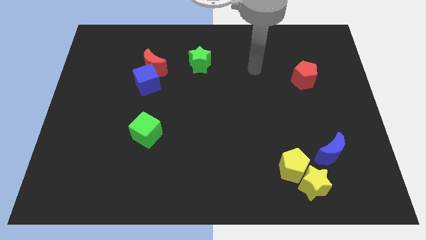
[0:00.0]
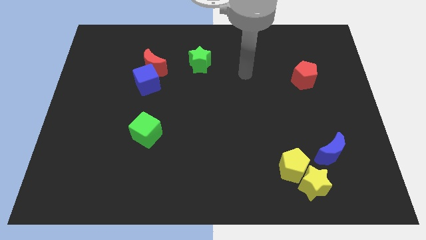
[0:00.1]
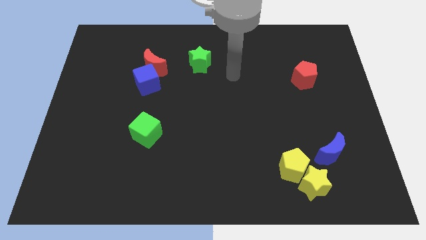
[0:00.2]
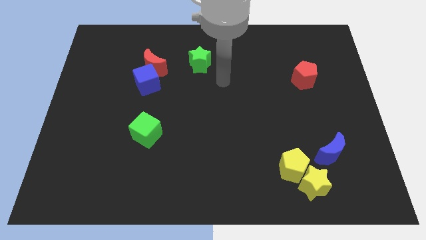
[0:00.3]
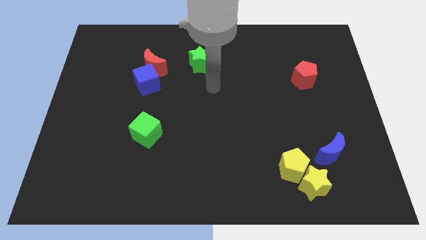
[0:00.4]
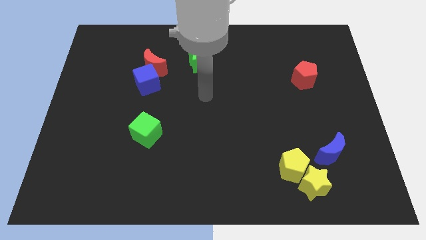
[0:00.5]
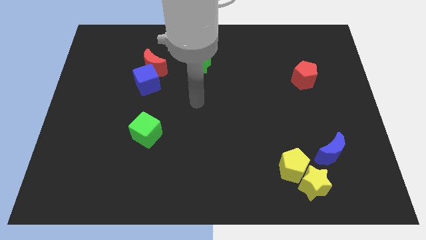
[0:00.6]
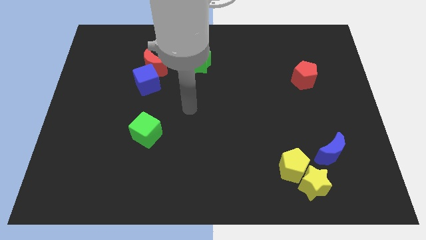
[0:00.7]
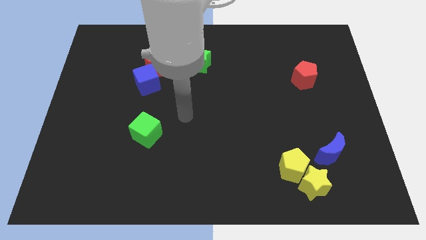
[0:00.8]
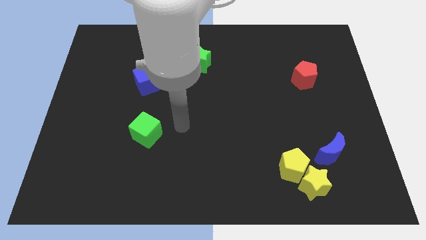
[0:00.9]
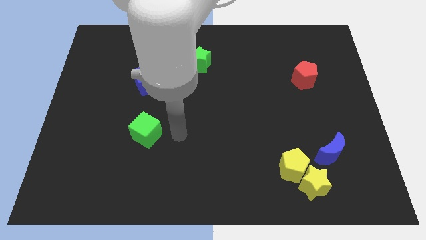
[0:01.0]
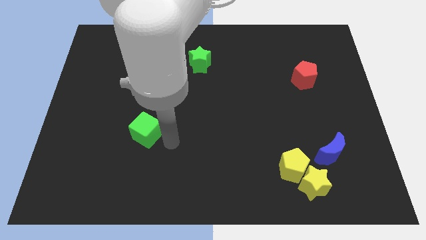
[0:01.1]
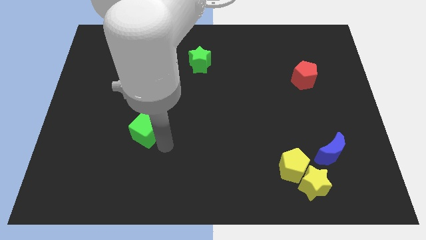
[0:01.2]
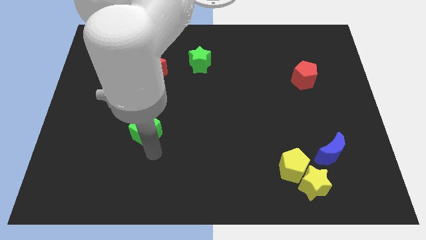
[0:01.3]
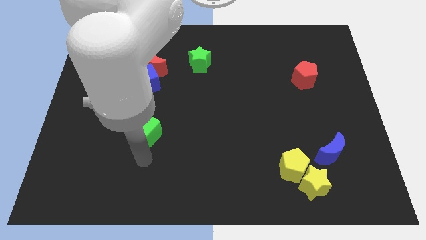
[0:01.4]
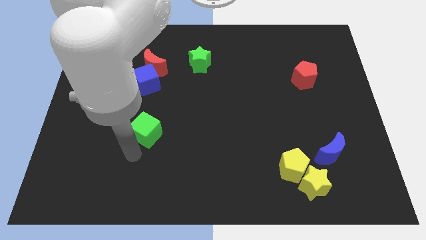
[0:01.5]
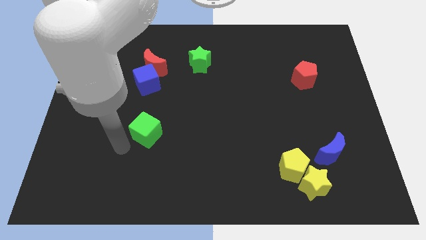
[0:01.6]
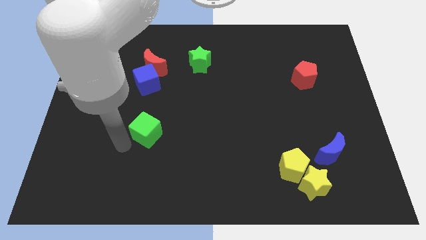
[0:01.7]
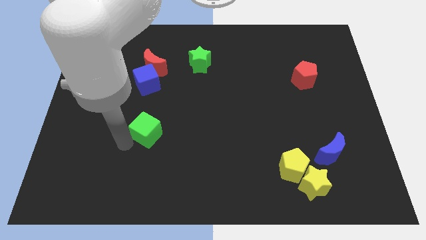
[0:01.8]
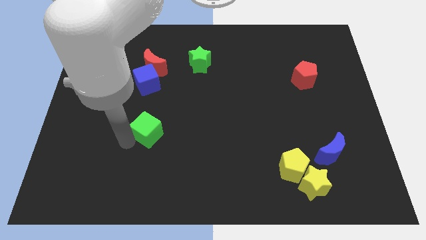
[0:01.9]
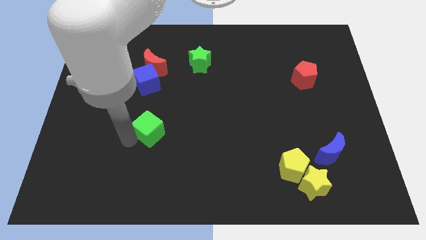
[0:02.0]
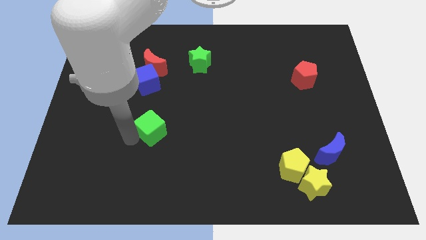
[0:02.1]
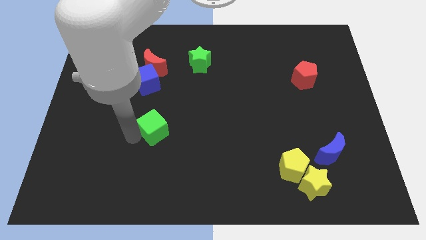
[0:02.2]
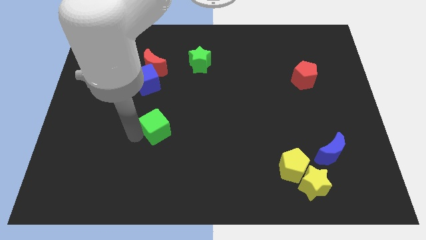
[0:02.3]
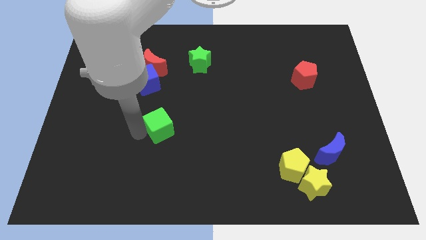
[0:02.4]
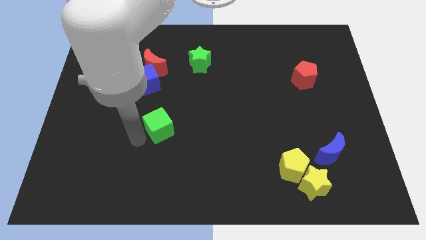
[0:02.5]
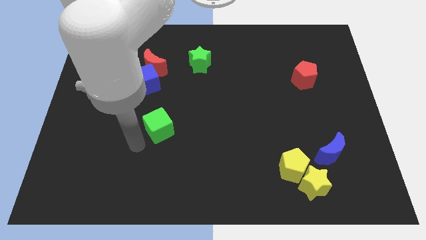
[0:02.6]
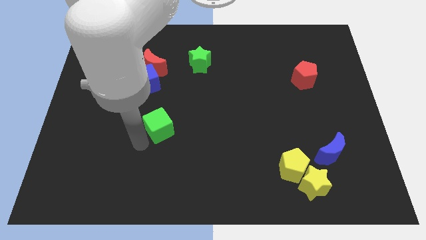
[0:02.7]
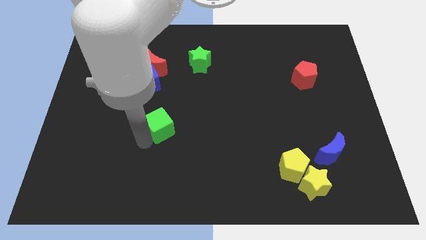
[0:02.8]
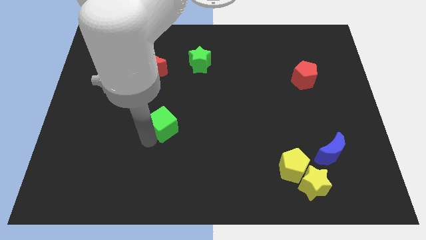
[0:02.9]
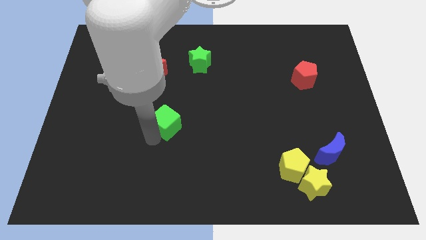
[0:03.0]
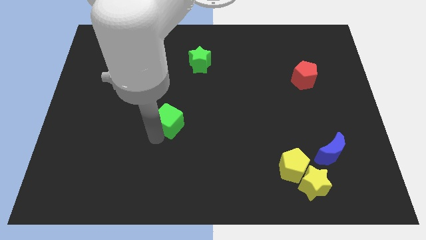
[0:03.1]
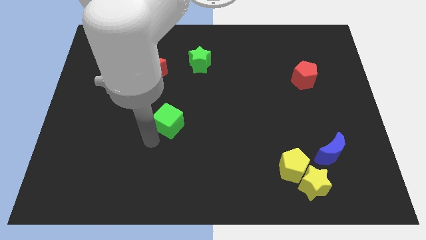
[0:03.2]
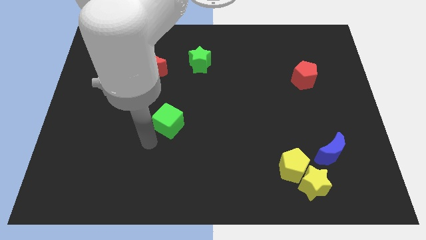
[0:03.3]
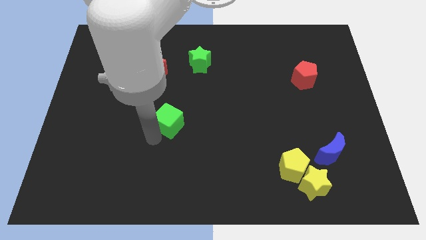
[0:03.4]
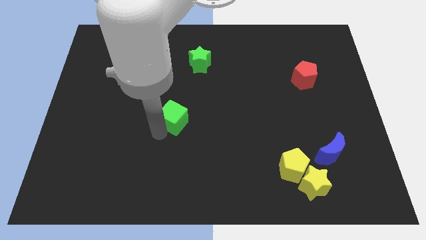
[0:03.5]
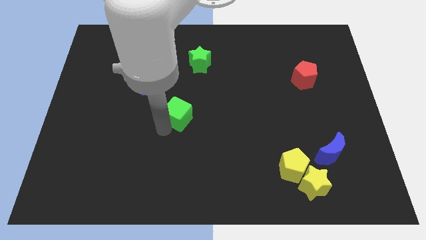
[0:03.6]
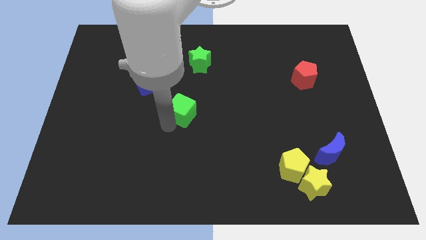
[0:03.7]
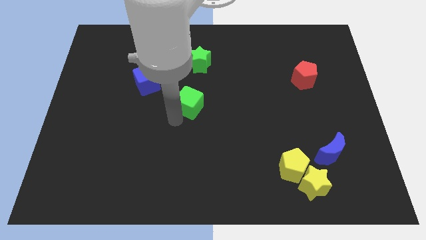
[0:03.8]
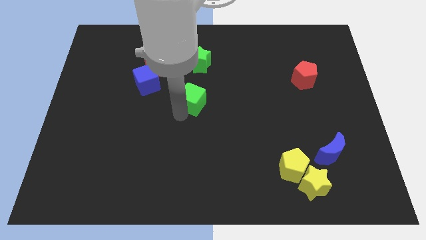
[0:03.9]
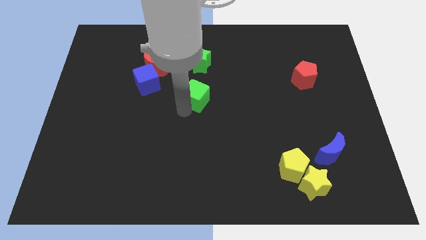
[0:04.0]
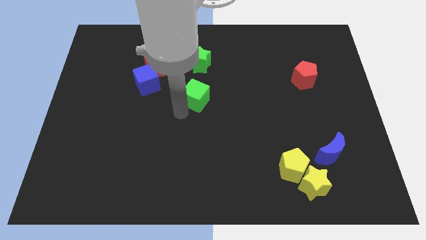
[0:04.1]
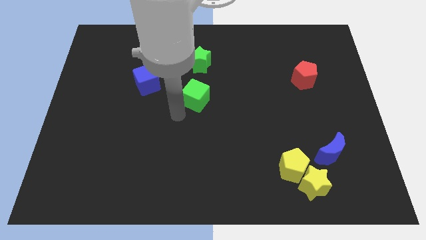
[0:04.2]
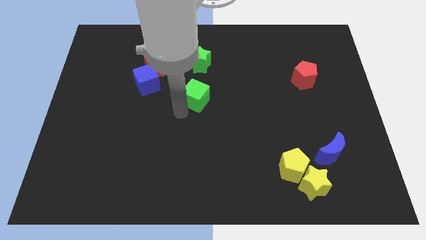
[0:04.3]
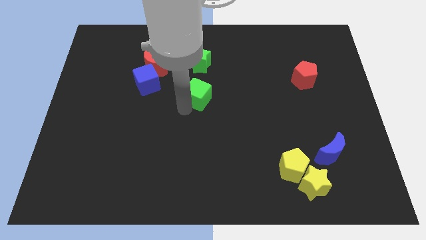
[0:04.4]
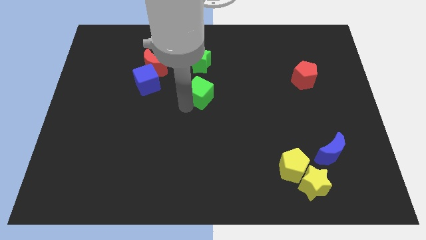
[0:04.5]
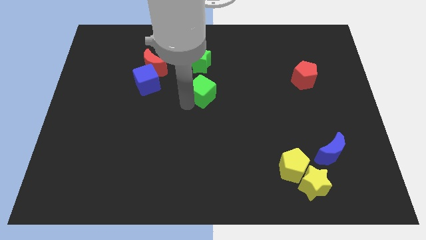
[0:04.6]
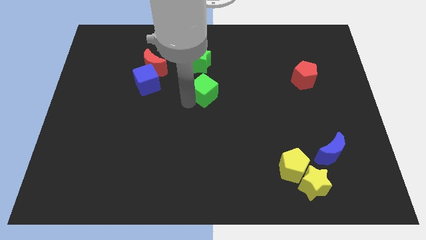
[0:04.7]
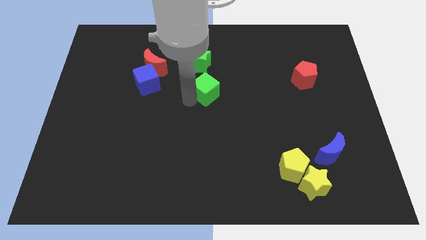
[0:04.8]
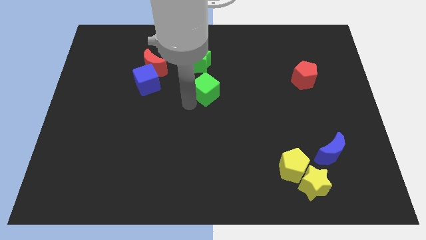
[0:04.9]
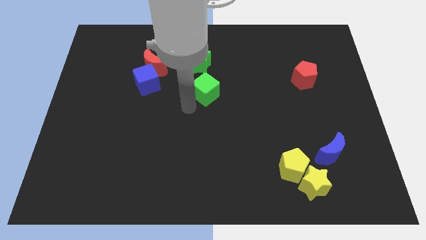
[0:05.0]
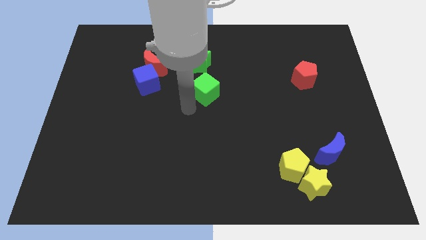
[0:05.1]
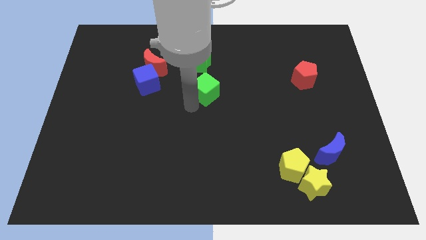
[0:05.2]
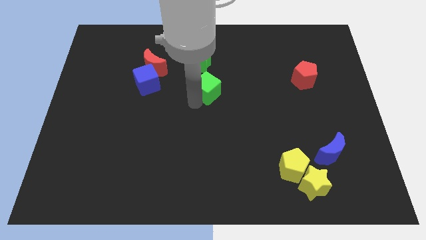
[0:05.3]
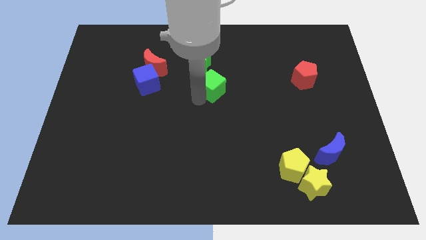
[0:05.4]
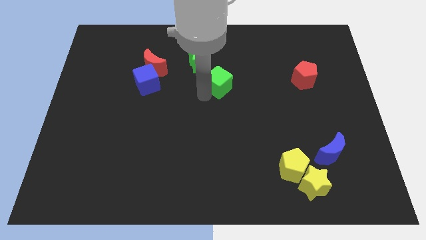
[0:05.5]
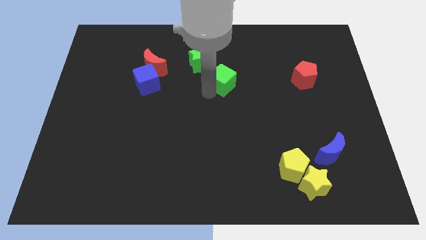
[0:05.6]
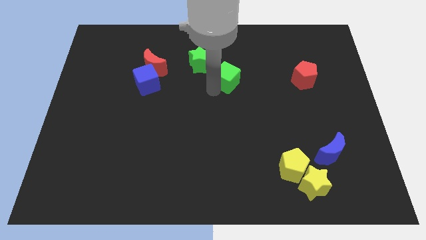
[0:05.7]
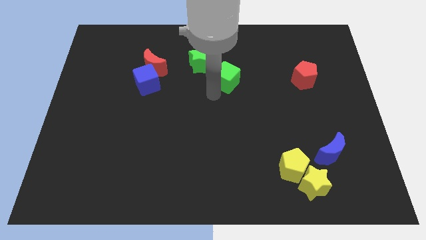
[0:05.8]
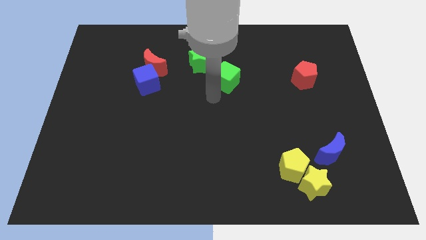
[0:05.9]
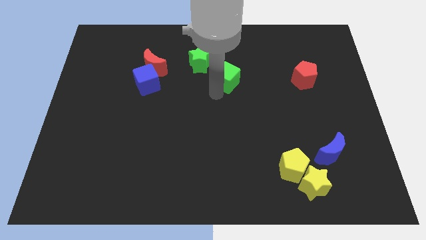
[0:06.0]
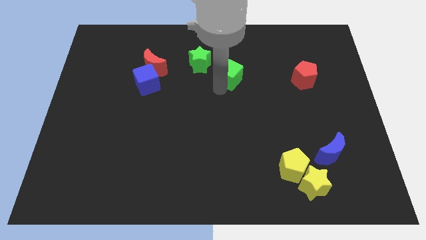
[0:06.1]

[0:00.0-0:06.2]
slide the green cube to the right side of the green star
